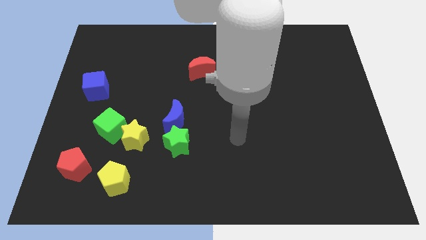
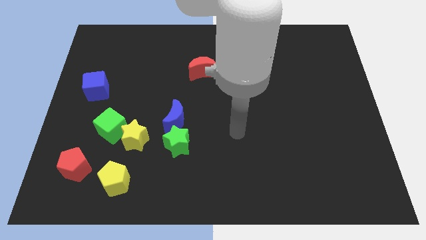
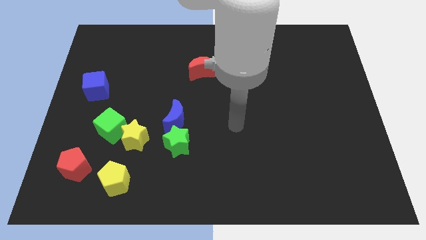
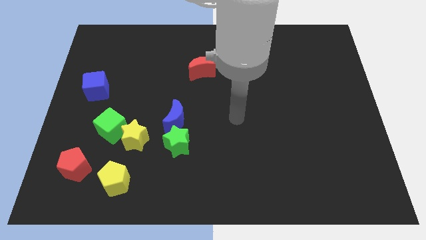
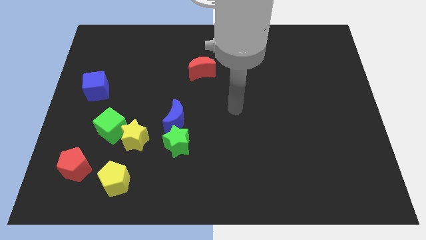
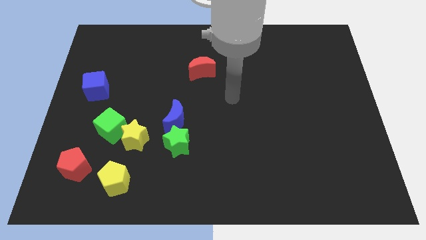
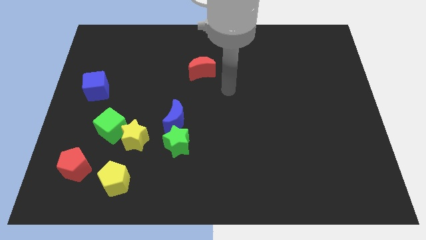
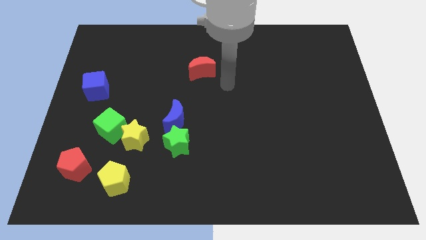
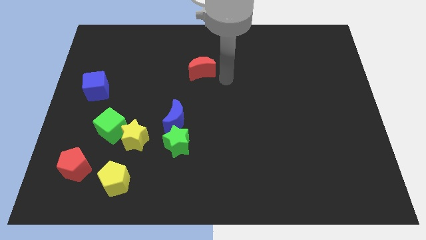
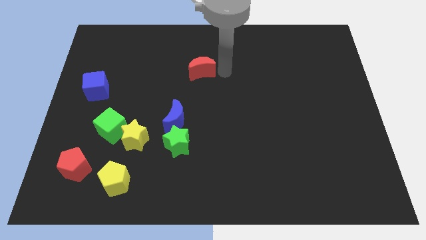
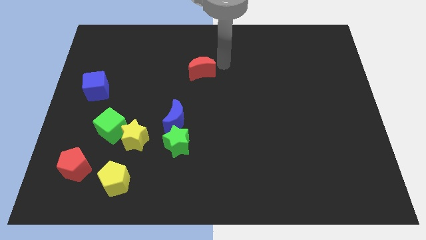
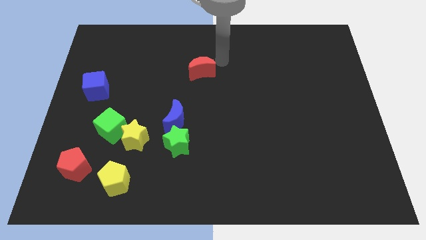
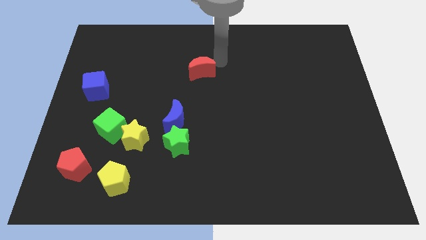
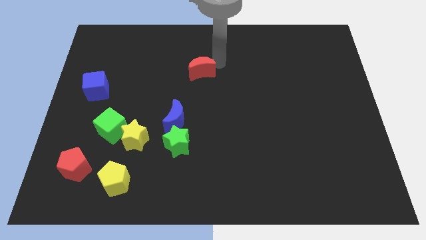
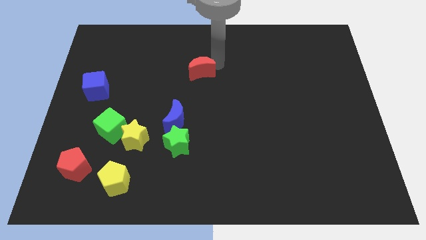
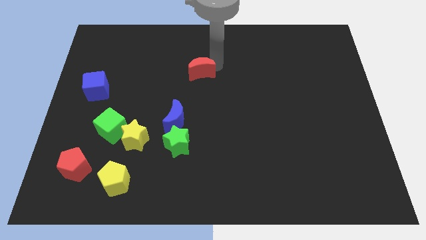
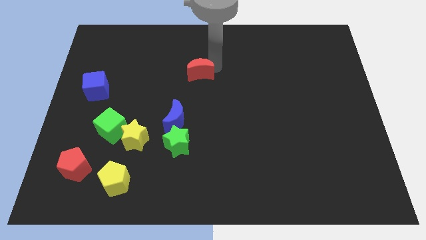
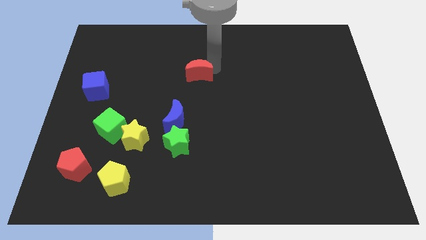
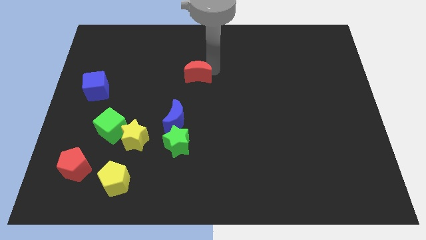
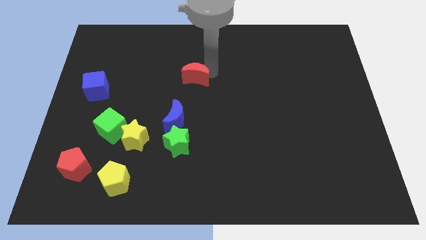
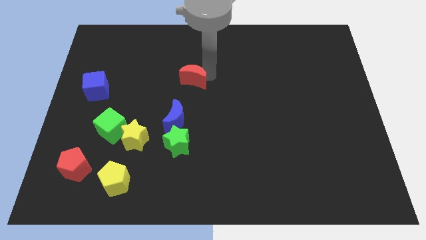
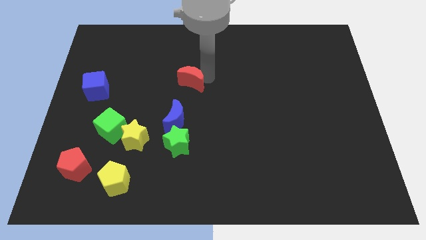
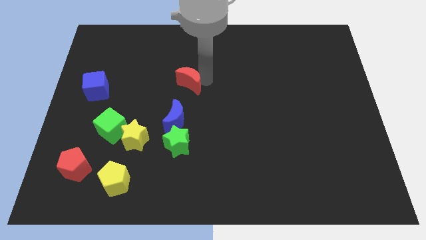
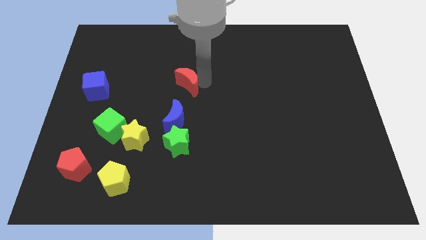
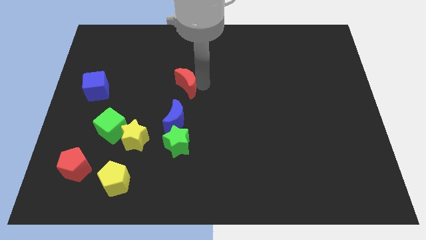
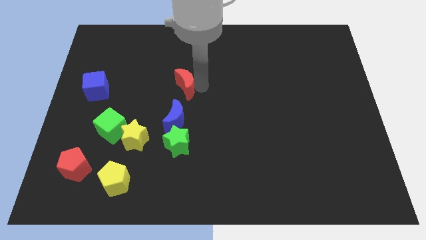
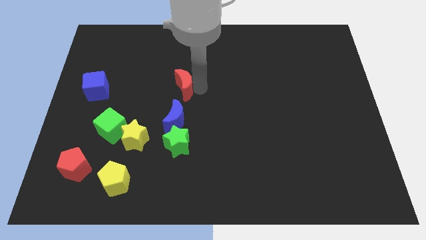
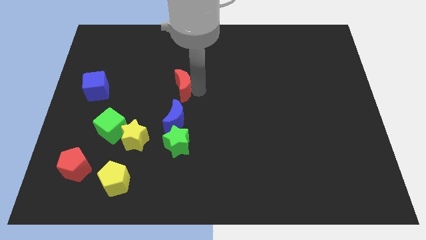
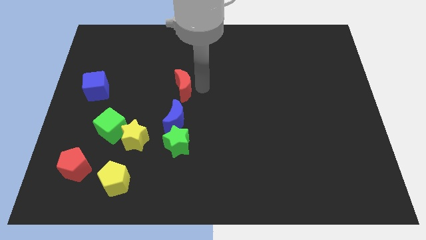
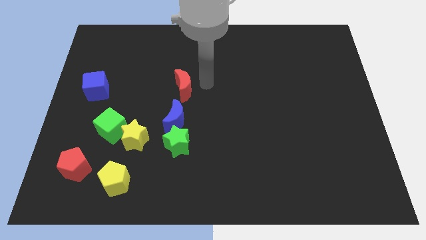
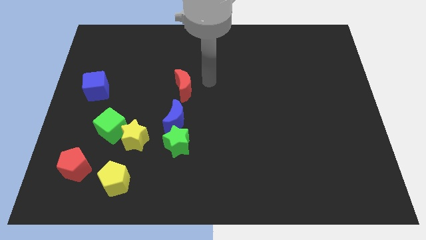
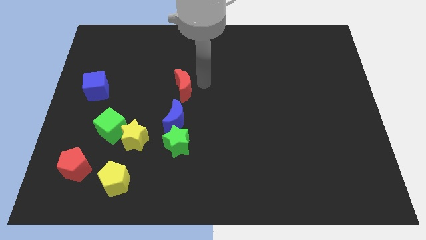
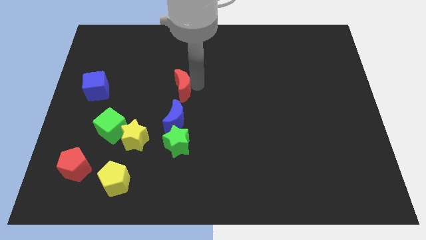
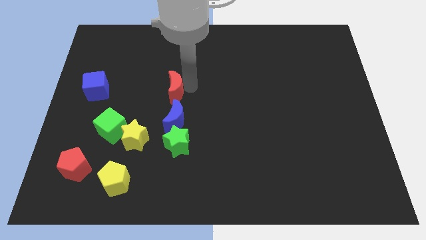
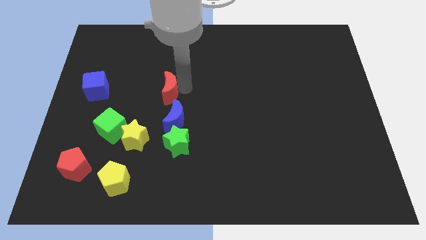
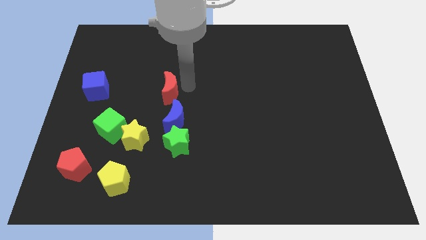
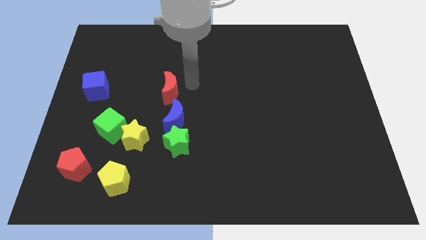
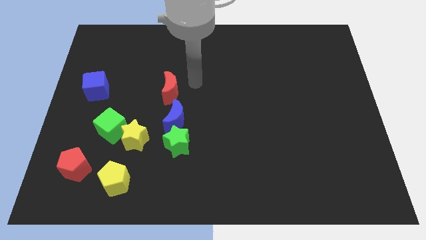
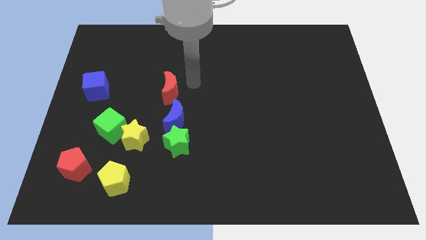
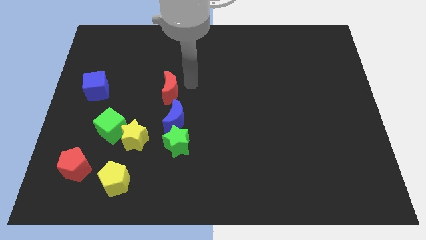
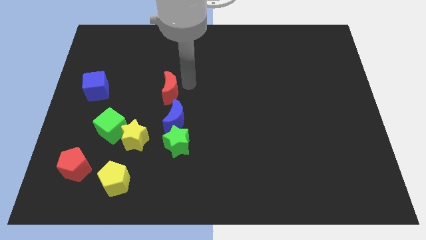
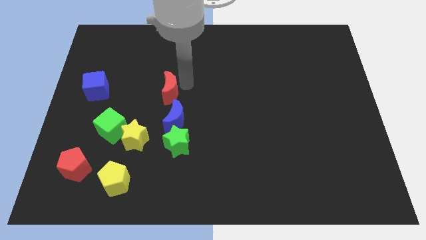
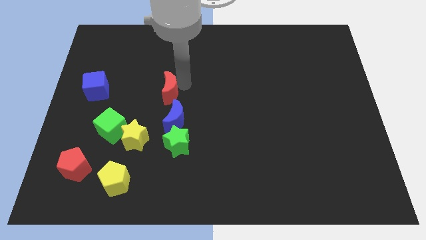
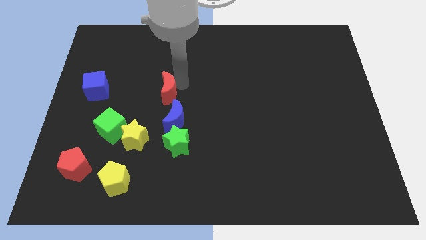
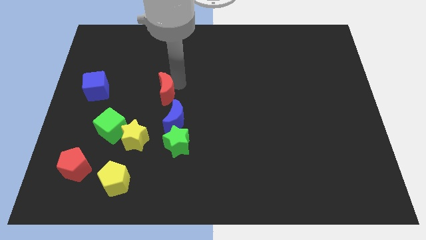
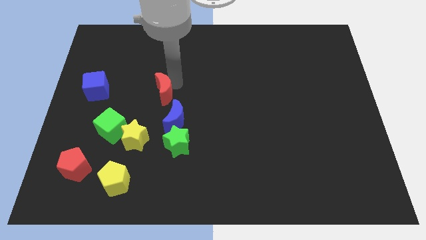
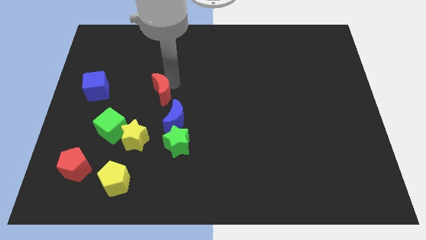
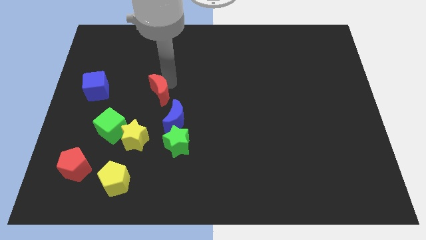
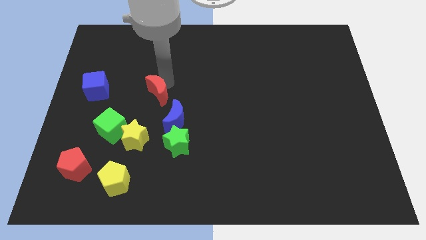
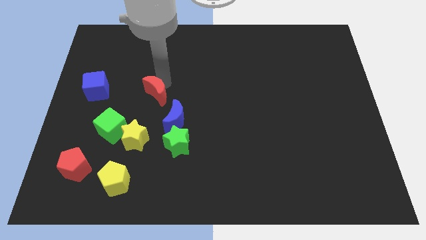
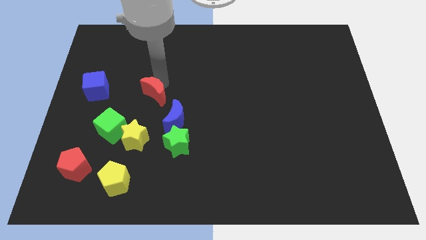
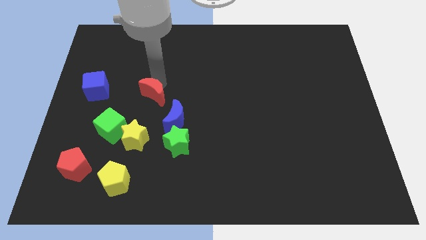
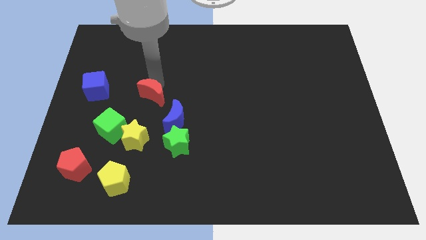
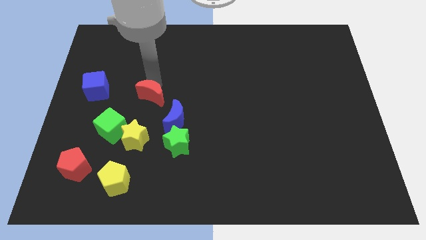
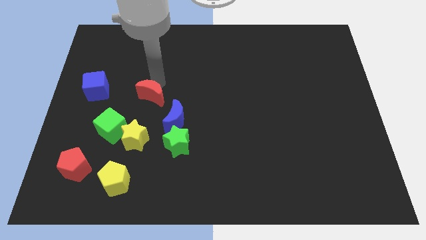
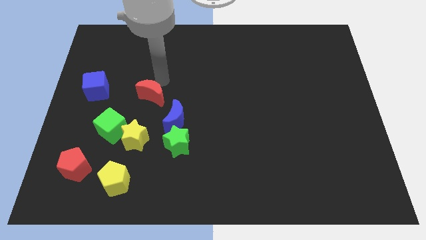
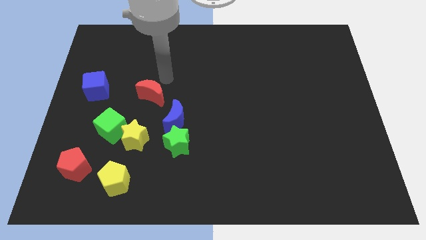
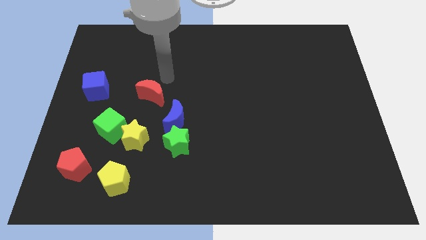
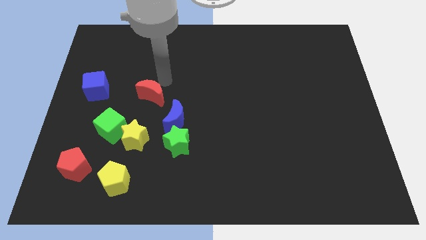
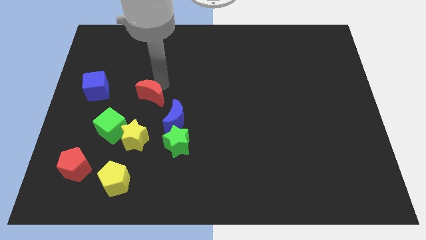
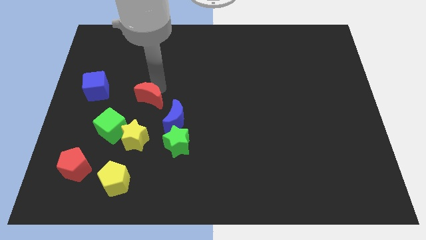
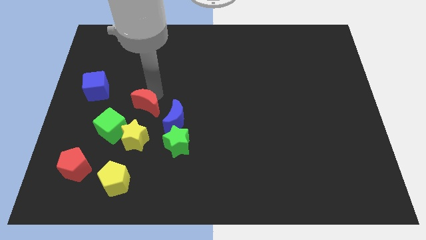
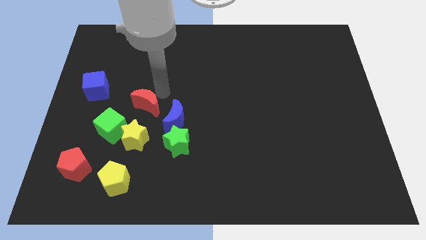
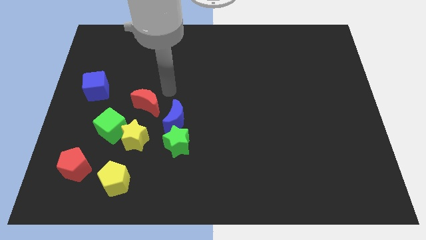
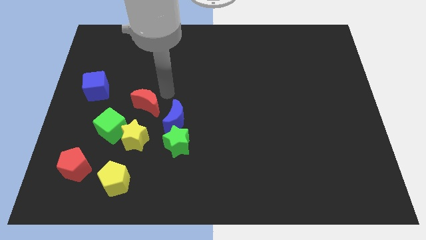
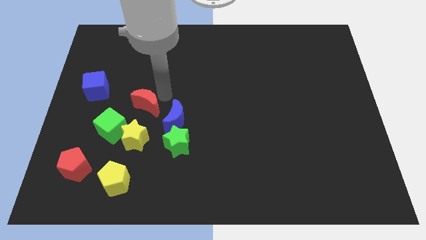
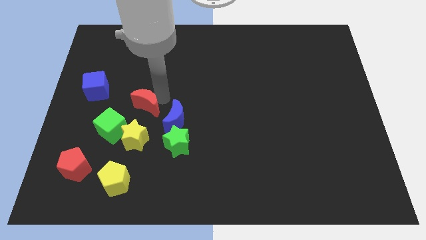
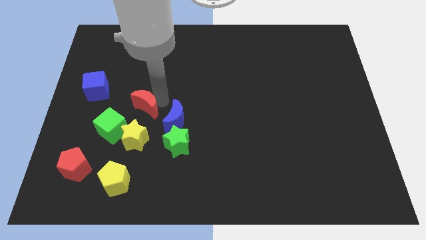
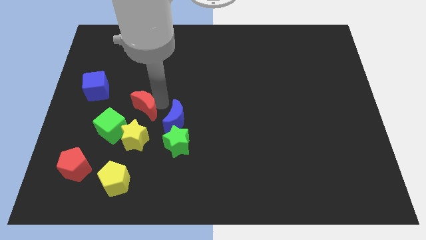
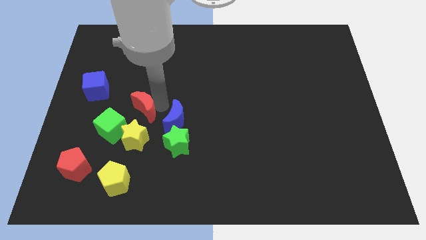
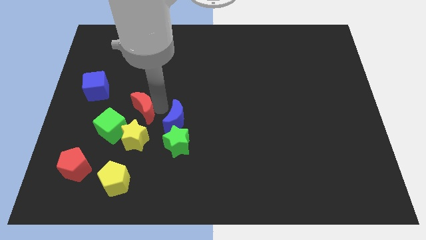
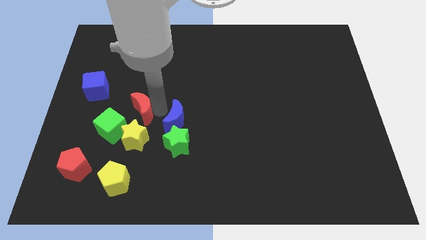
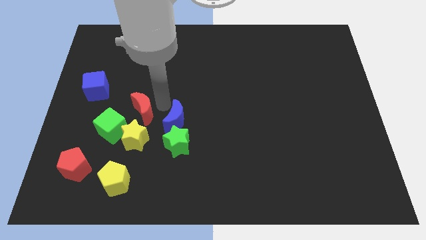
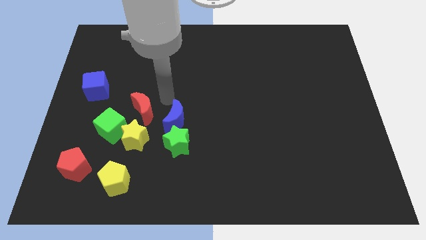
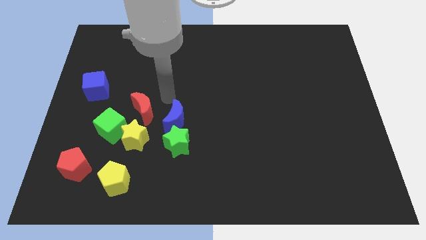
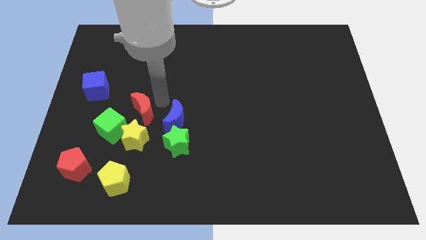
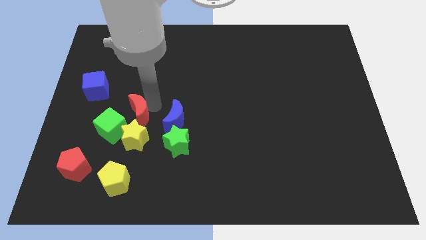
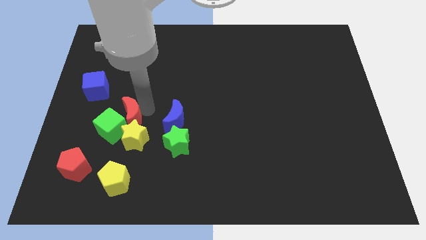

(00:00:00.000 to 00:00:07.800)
move the red moon to the green cube

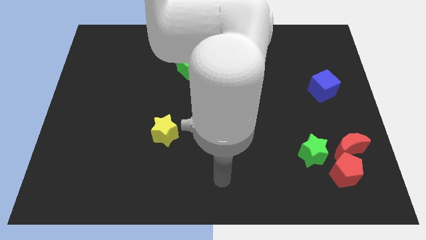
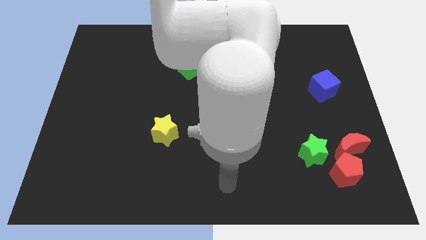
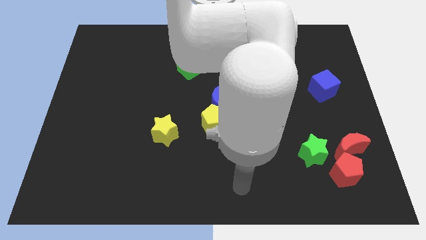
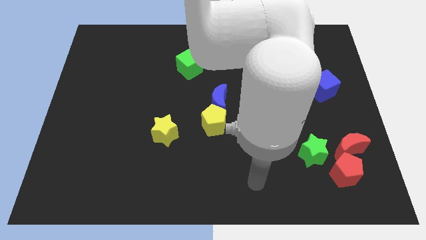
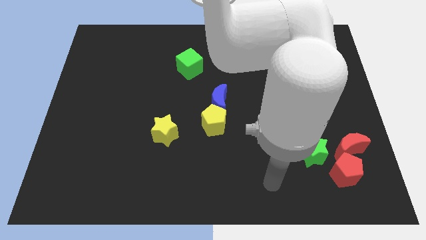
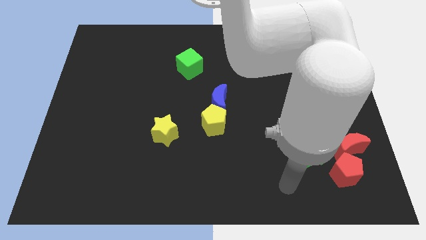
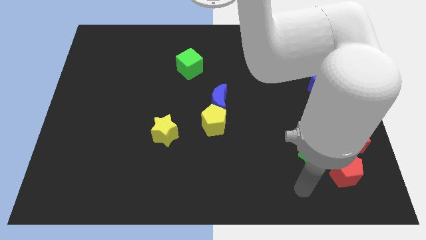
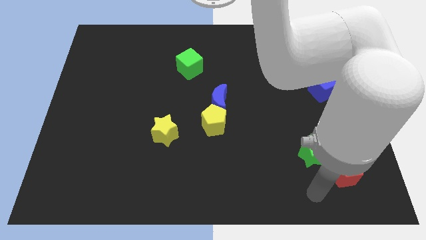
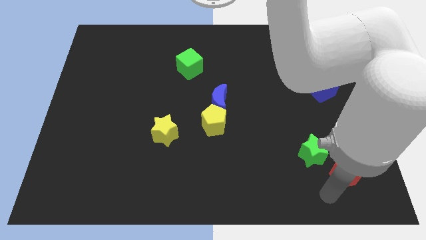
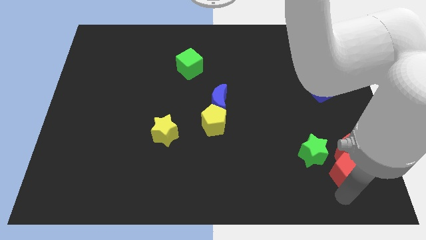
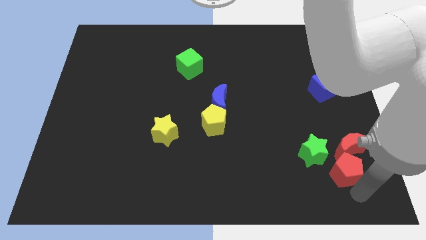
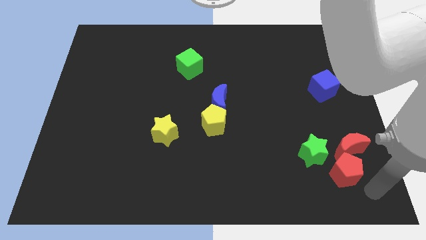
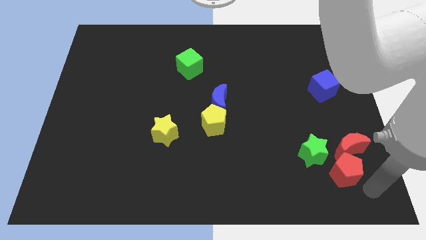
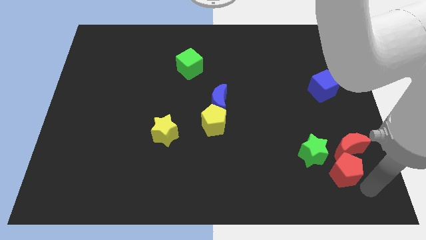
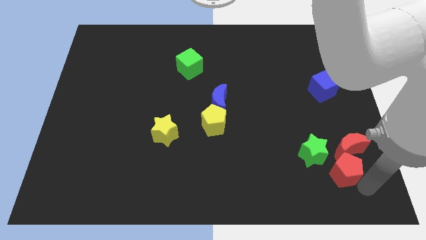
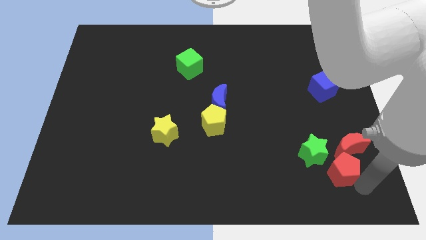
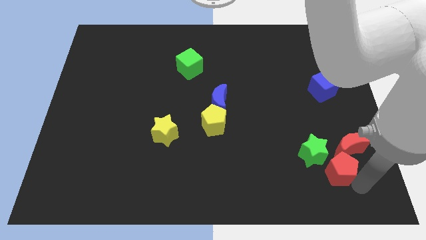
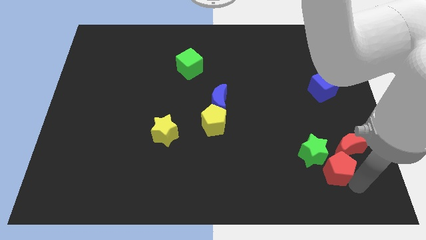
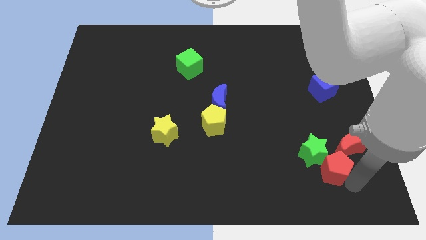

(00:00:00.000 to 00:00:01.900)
push the red pentagon to the green star
